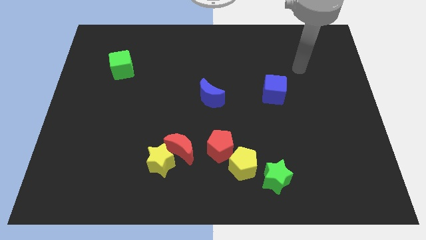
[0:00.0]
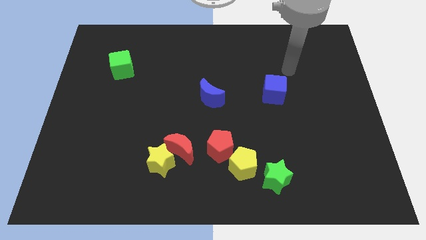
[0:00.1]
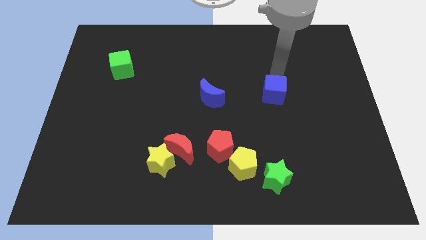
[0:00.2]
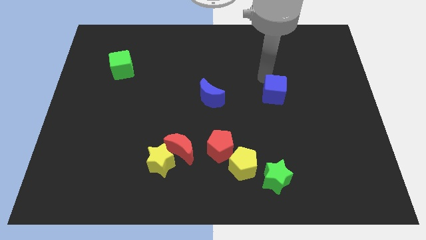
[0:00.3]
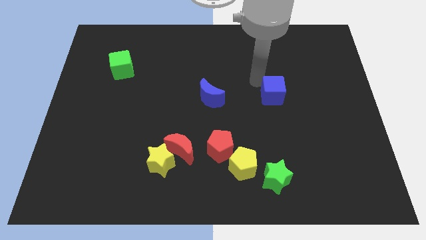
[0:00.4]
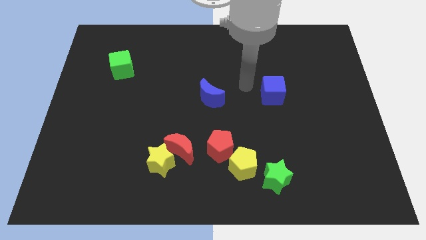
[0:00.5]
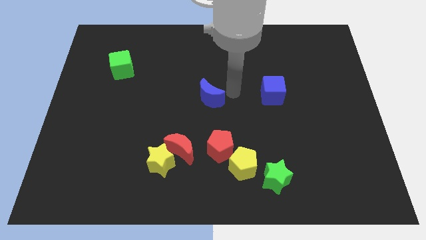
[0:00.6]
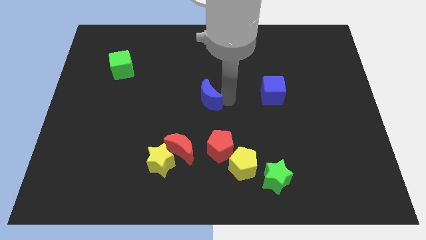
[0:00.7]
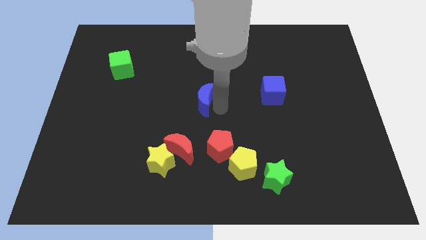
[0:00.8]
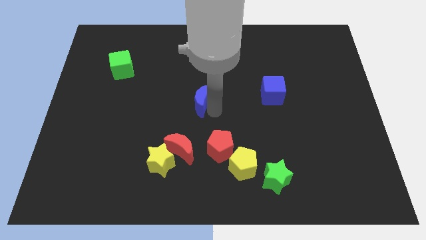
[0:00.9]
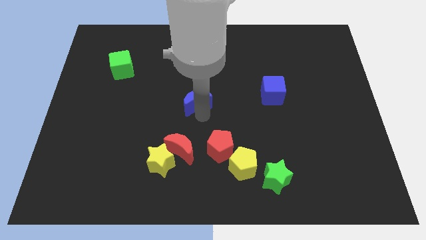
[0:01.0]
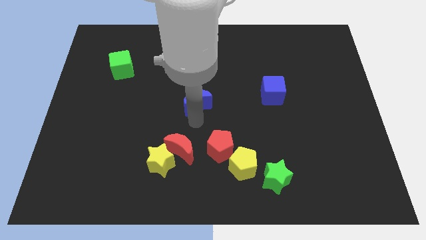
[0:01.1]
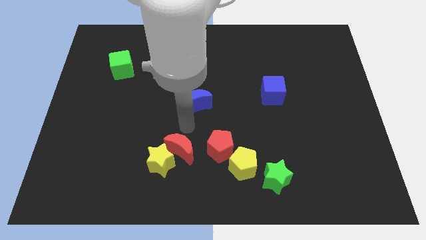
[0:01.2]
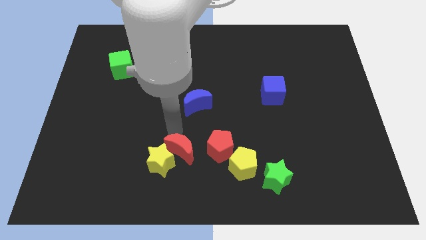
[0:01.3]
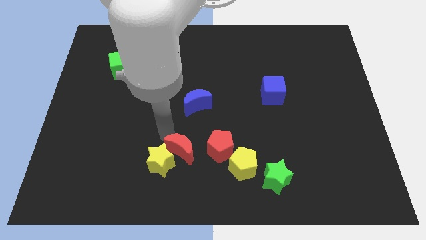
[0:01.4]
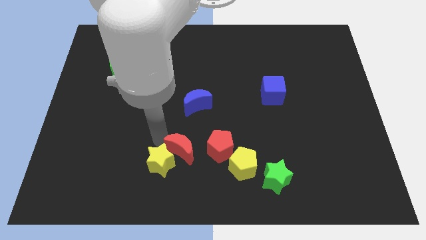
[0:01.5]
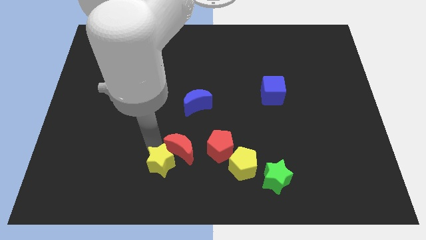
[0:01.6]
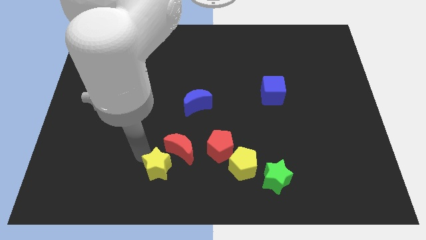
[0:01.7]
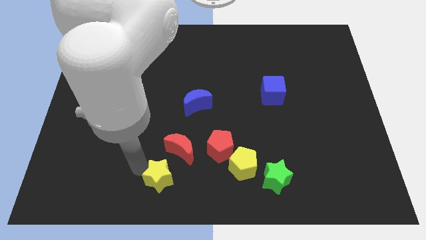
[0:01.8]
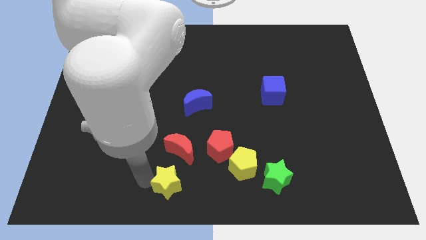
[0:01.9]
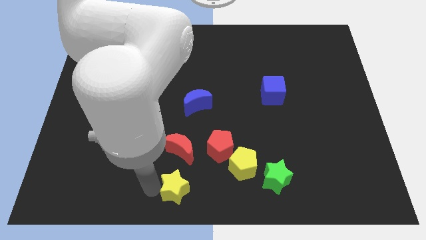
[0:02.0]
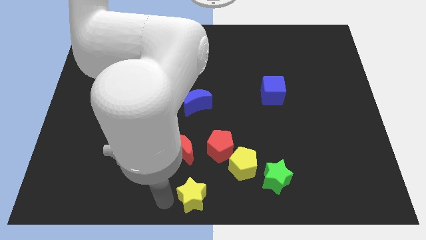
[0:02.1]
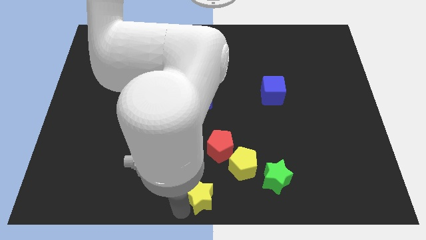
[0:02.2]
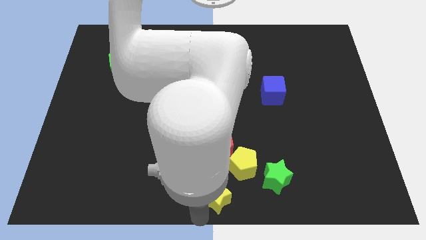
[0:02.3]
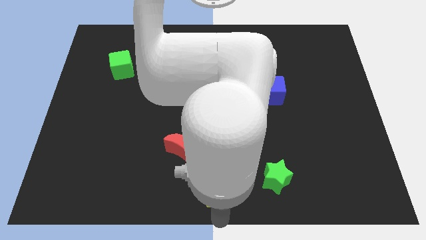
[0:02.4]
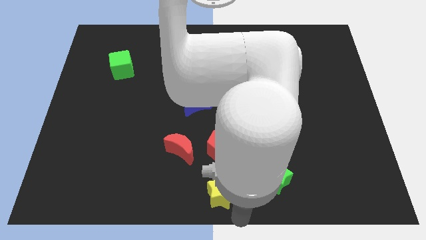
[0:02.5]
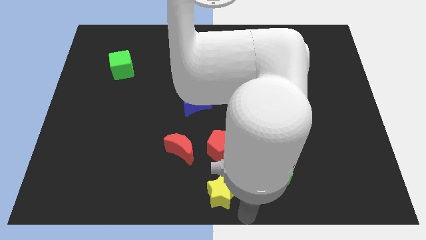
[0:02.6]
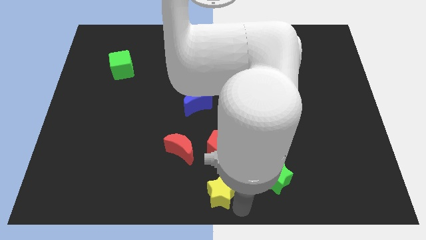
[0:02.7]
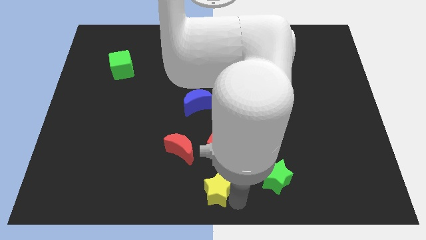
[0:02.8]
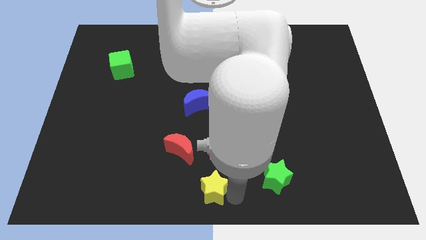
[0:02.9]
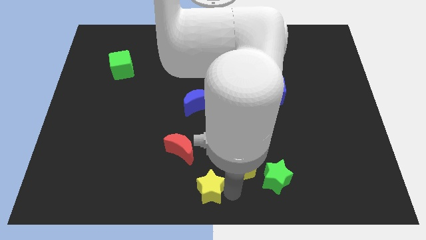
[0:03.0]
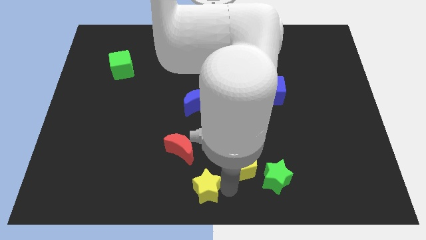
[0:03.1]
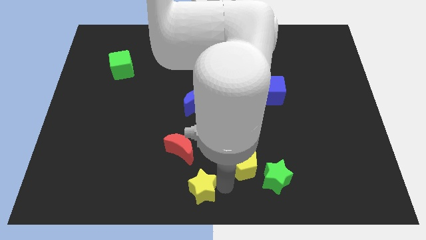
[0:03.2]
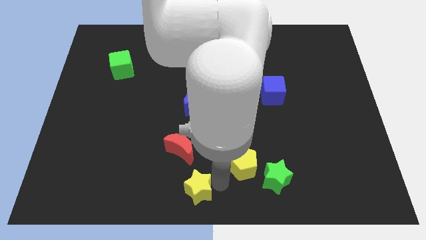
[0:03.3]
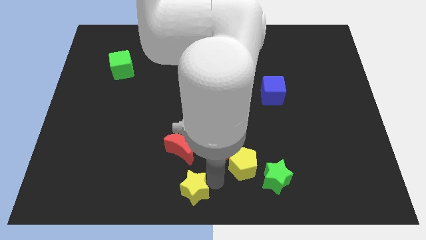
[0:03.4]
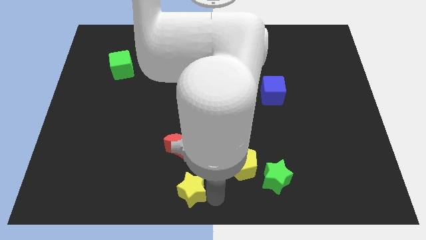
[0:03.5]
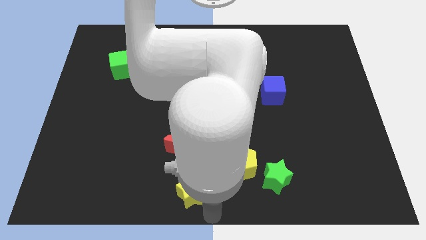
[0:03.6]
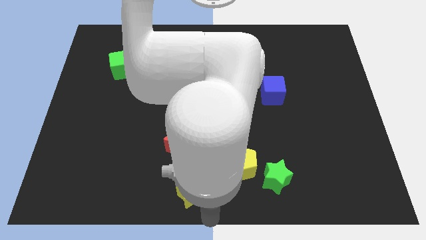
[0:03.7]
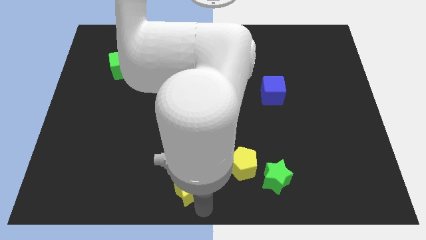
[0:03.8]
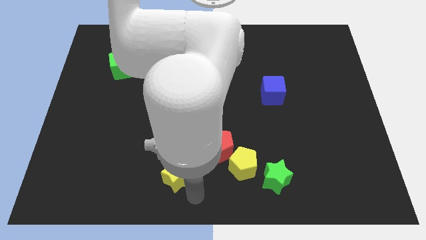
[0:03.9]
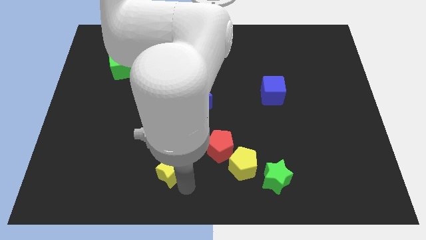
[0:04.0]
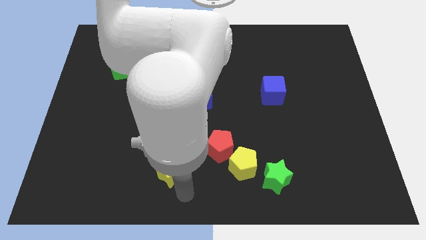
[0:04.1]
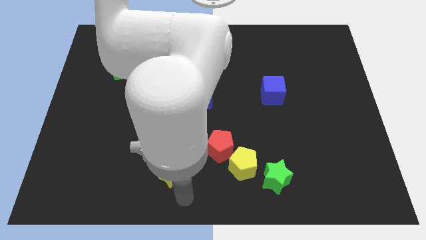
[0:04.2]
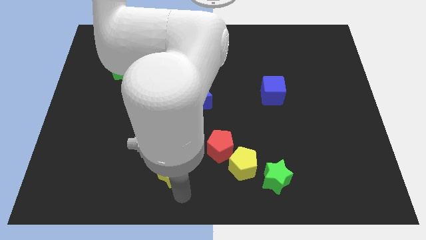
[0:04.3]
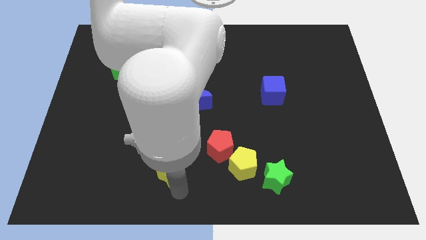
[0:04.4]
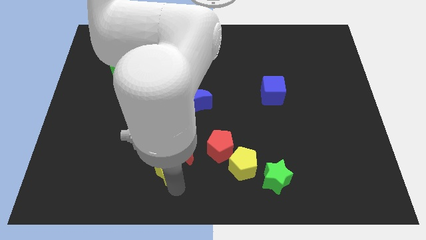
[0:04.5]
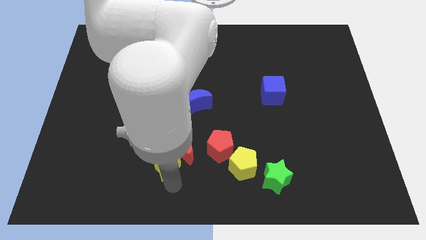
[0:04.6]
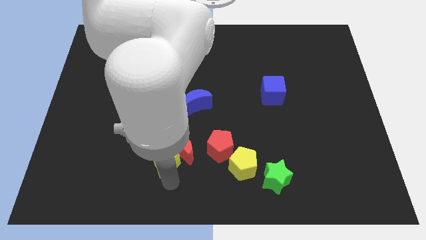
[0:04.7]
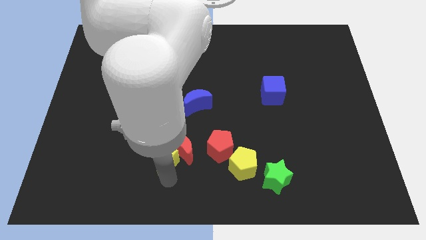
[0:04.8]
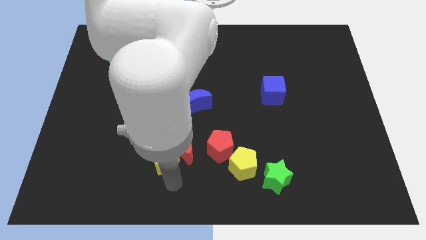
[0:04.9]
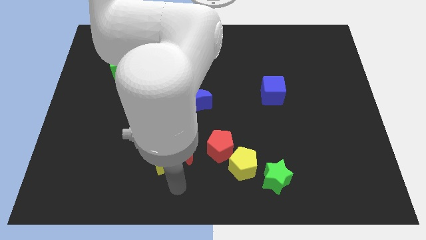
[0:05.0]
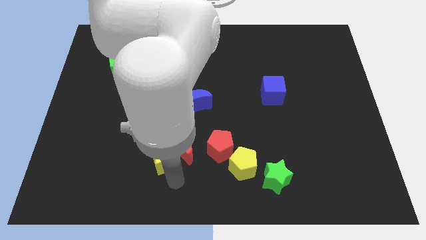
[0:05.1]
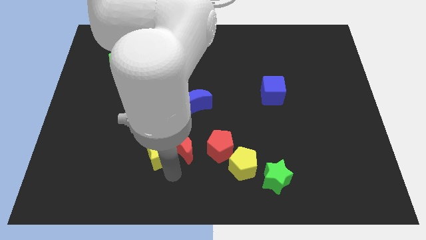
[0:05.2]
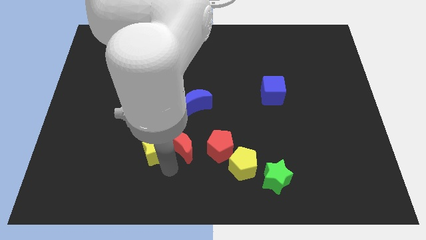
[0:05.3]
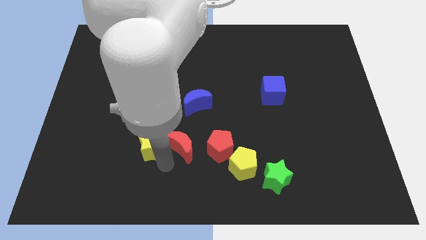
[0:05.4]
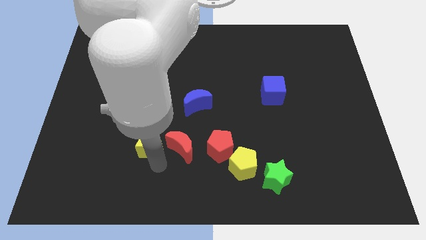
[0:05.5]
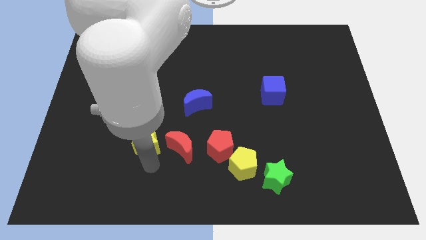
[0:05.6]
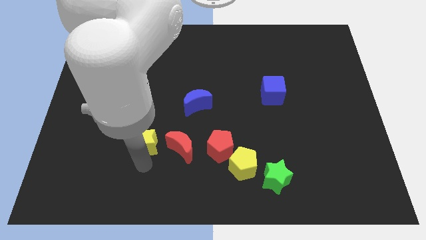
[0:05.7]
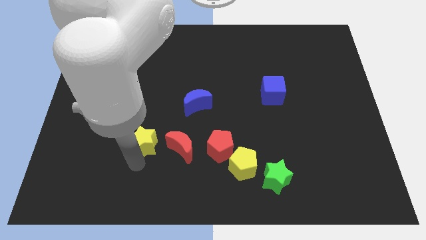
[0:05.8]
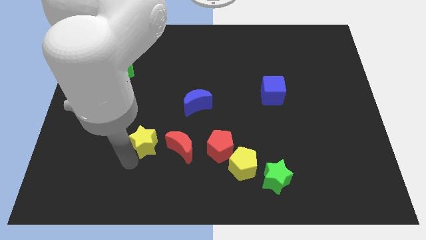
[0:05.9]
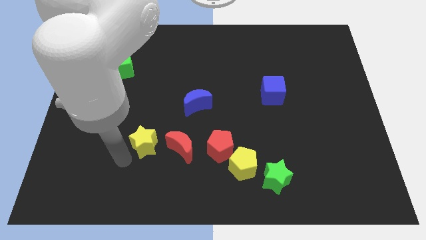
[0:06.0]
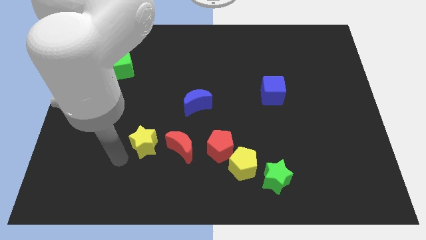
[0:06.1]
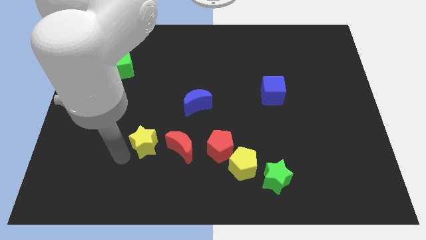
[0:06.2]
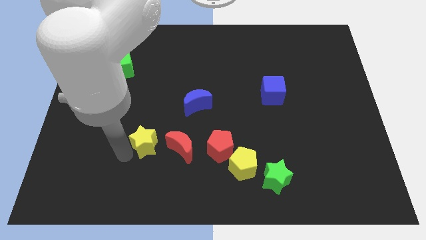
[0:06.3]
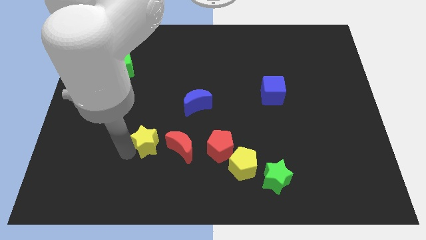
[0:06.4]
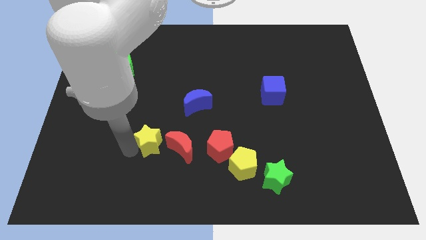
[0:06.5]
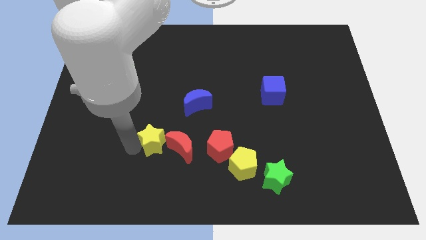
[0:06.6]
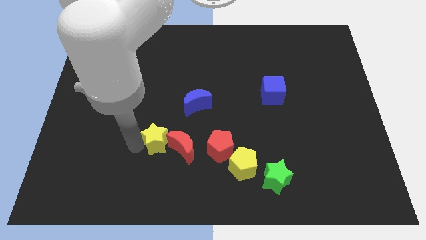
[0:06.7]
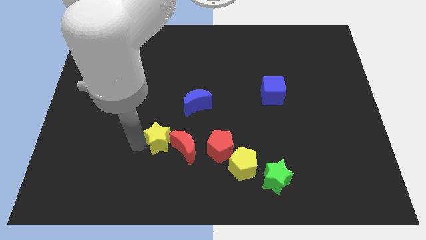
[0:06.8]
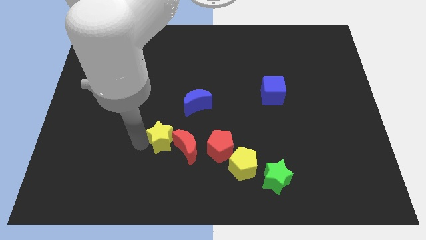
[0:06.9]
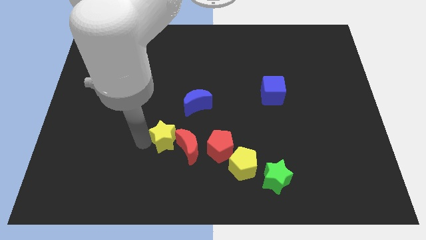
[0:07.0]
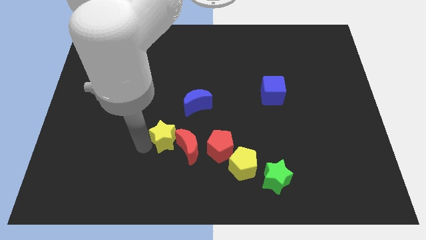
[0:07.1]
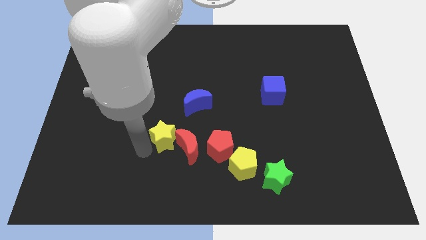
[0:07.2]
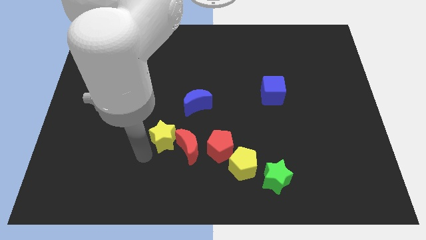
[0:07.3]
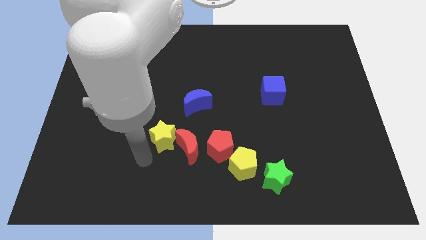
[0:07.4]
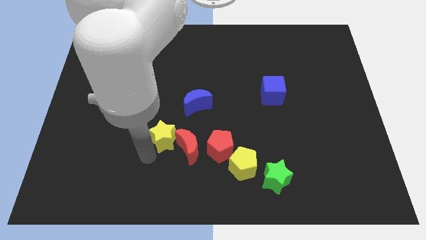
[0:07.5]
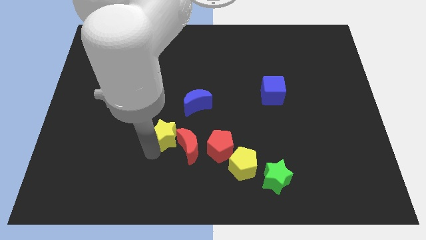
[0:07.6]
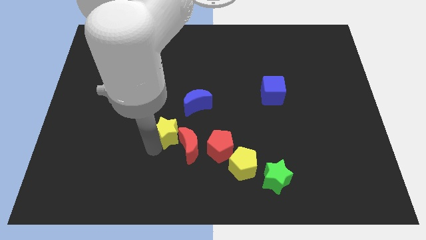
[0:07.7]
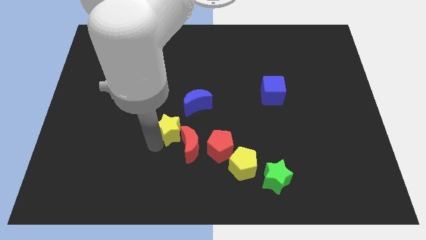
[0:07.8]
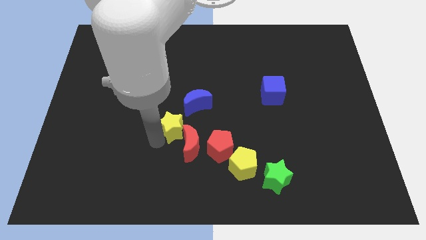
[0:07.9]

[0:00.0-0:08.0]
slide the yellow star upwards and right slightly
